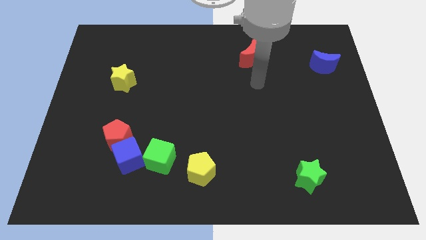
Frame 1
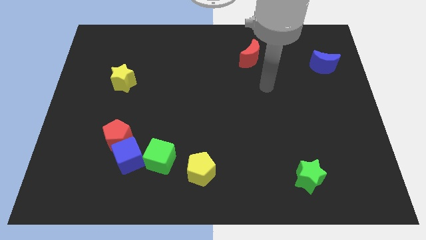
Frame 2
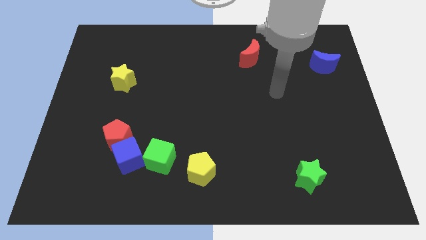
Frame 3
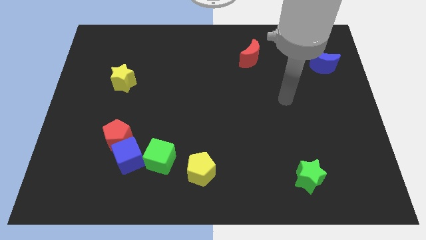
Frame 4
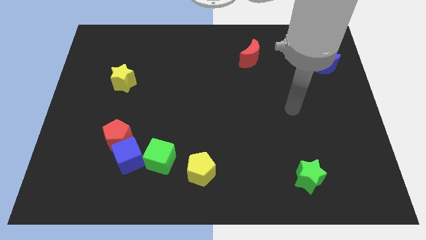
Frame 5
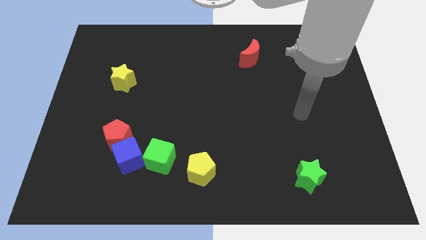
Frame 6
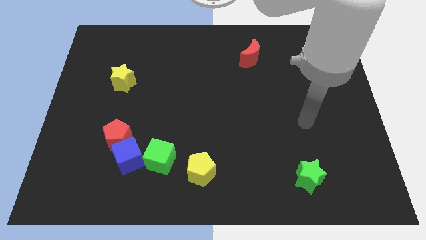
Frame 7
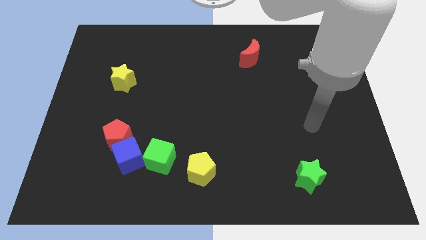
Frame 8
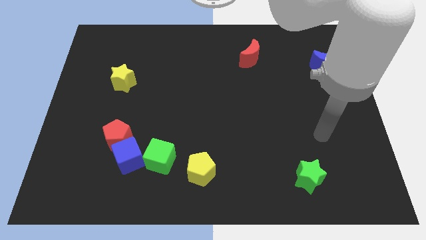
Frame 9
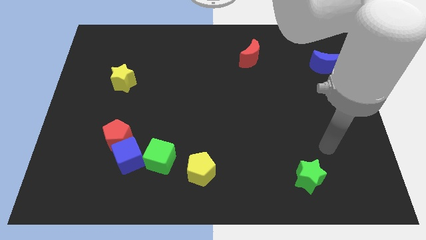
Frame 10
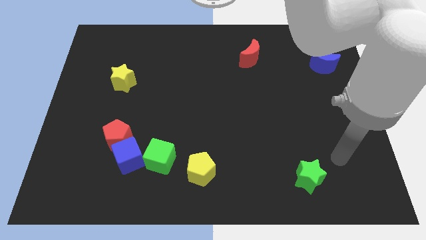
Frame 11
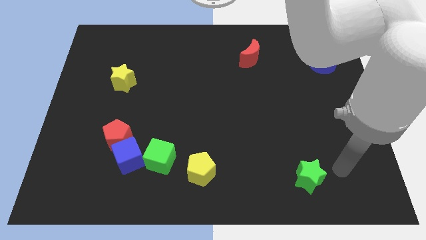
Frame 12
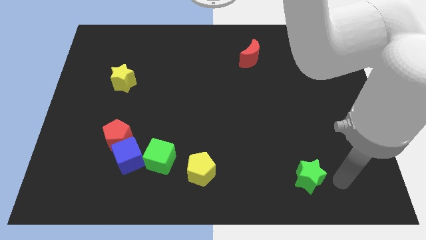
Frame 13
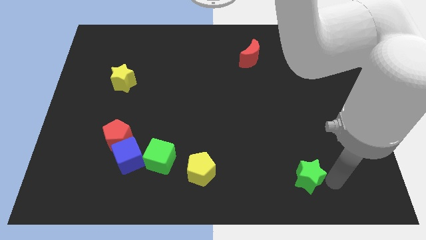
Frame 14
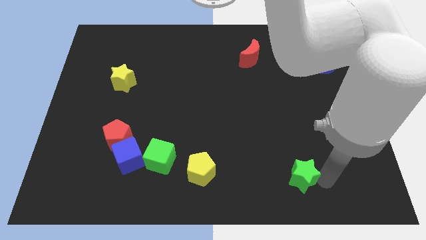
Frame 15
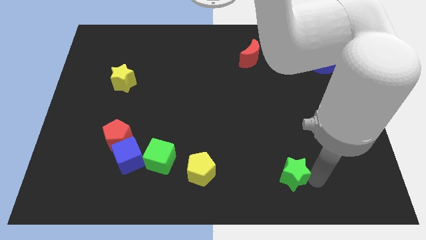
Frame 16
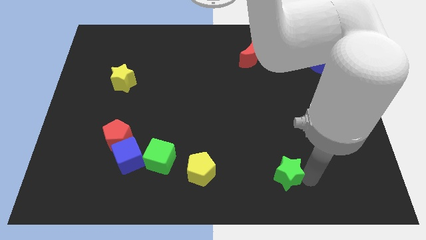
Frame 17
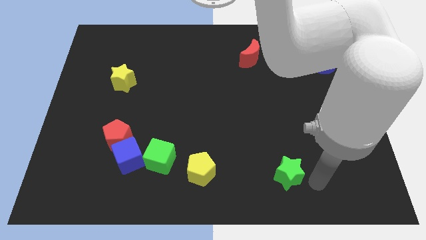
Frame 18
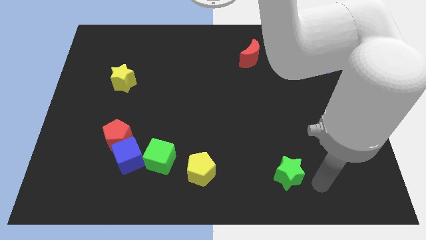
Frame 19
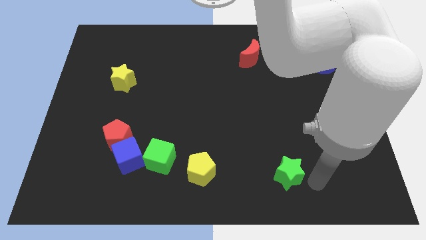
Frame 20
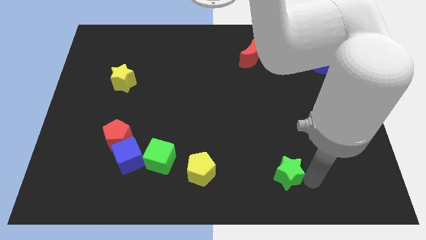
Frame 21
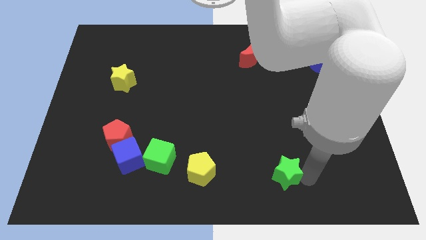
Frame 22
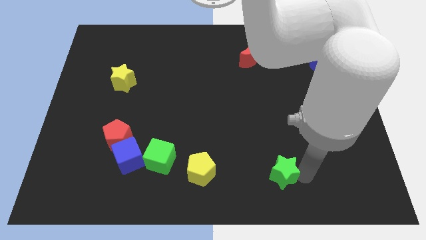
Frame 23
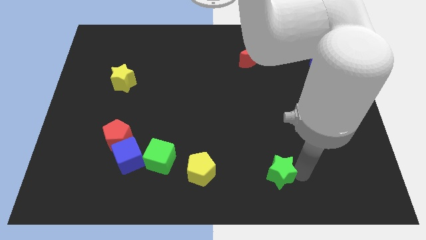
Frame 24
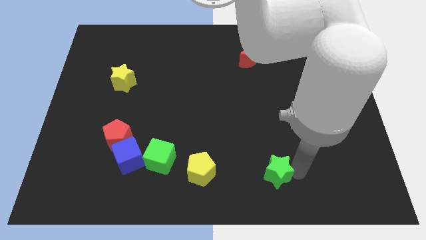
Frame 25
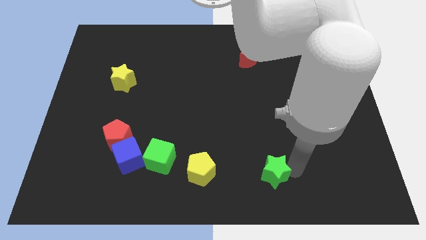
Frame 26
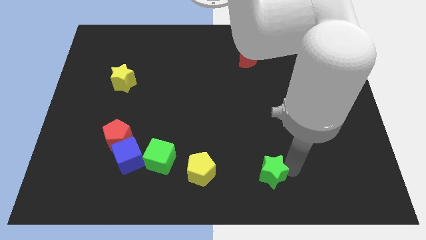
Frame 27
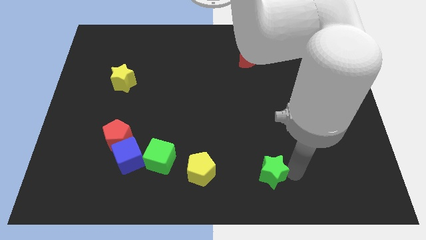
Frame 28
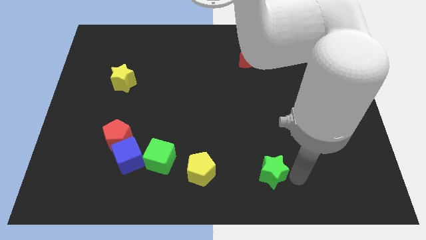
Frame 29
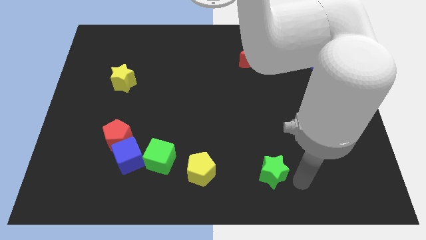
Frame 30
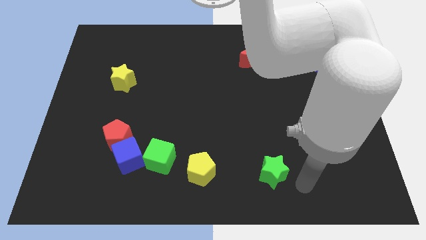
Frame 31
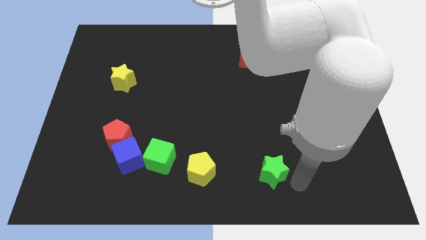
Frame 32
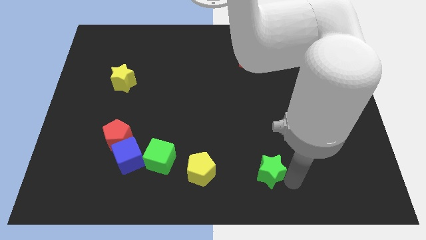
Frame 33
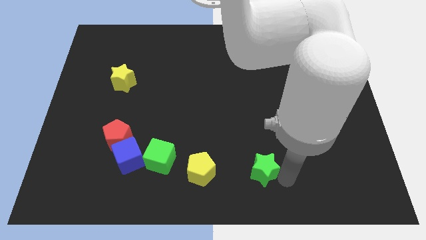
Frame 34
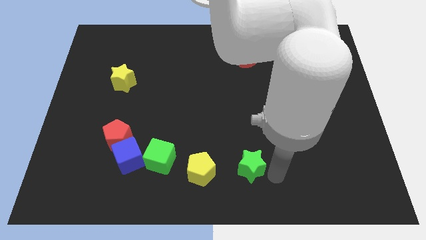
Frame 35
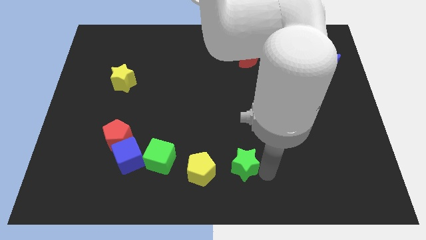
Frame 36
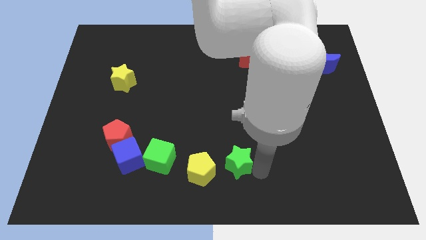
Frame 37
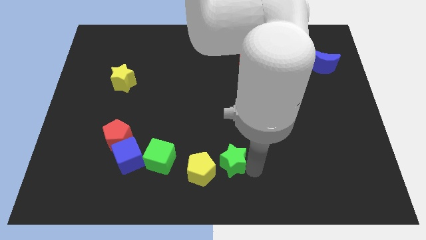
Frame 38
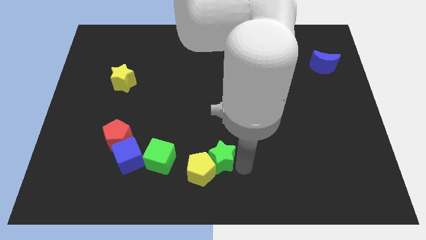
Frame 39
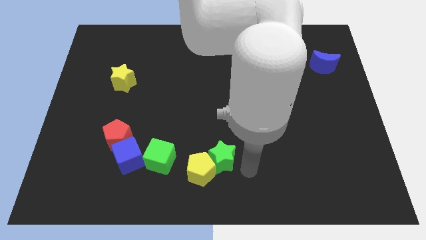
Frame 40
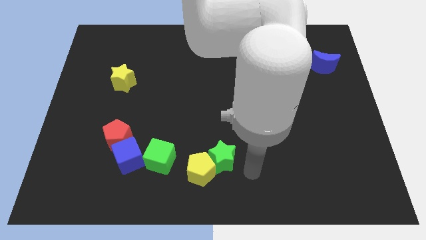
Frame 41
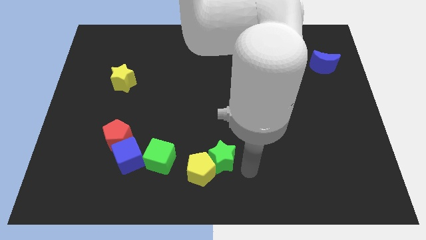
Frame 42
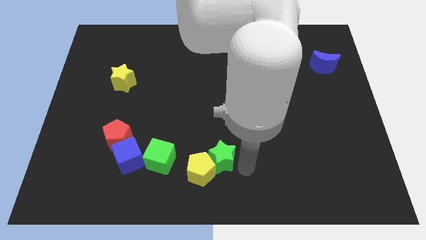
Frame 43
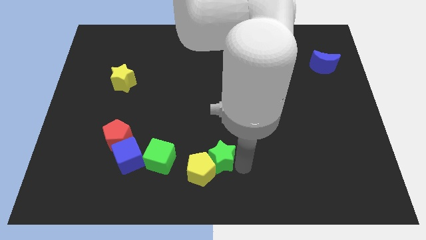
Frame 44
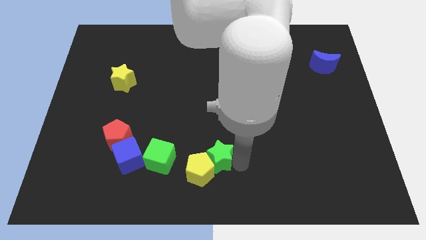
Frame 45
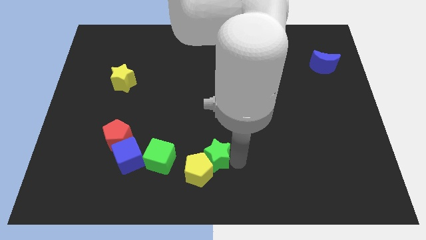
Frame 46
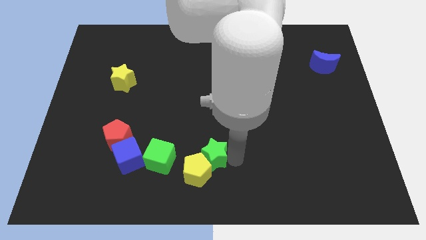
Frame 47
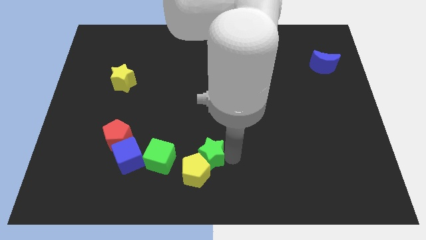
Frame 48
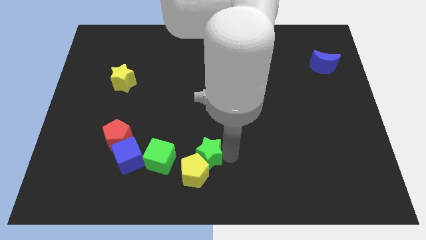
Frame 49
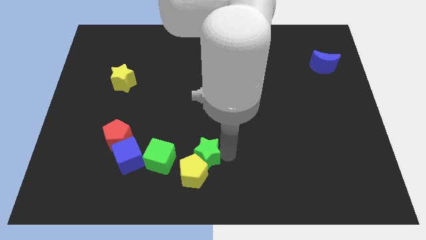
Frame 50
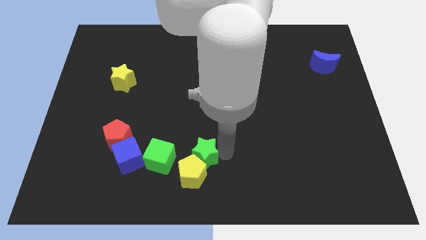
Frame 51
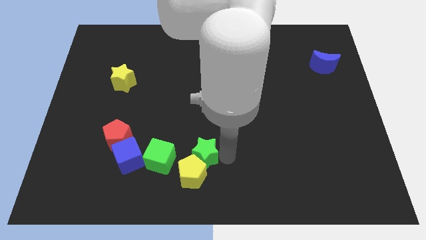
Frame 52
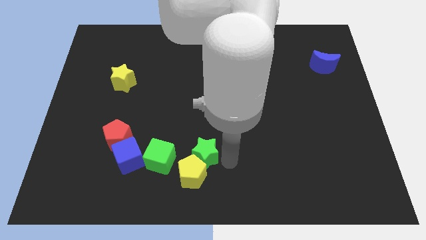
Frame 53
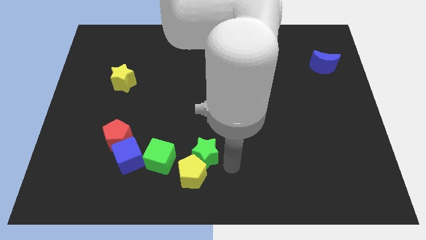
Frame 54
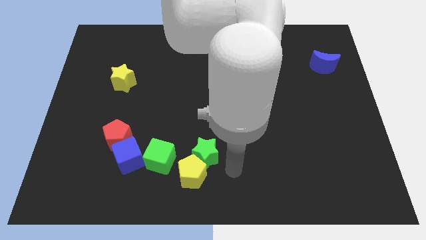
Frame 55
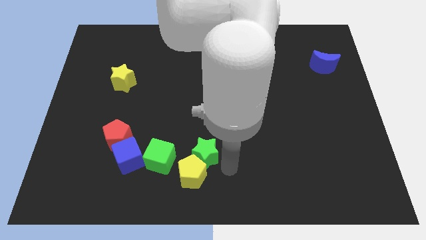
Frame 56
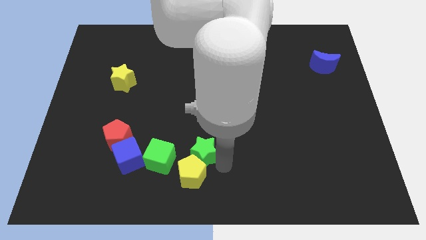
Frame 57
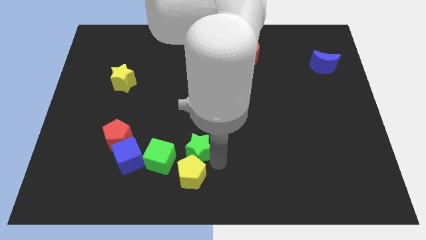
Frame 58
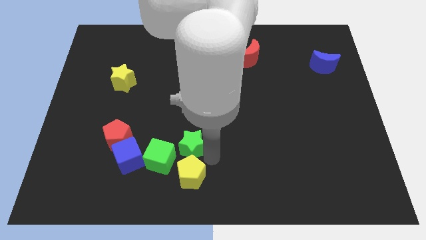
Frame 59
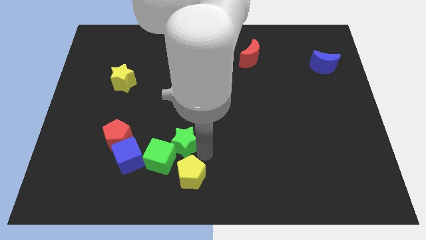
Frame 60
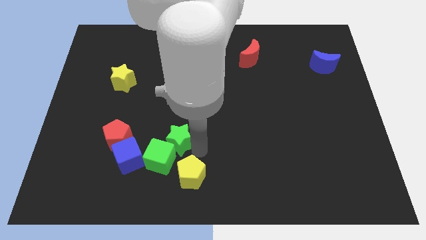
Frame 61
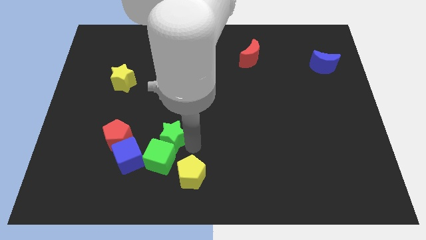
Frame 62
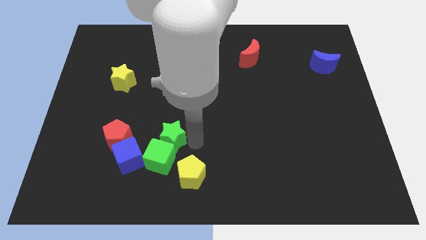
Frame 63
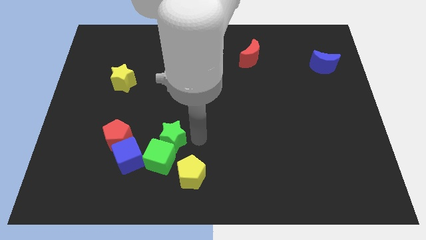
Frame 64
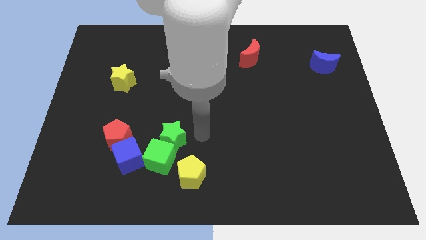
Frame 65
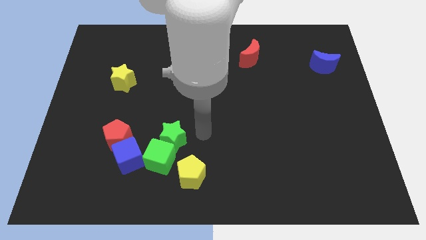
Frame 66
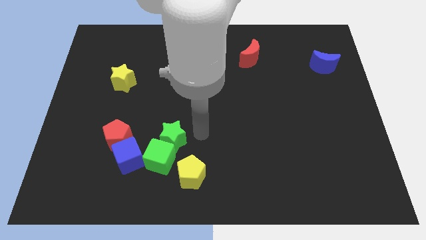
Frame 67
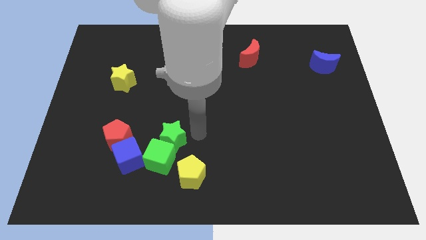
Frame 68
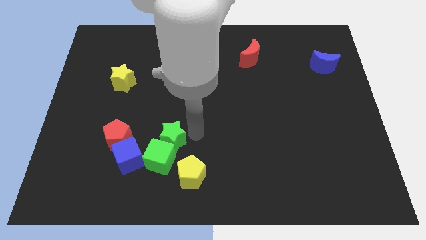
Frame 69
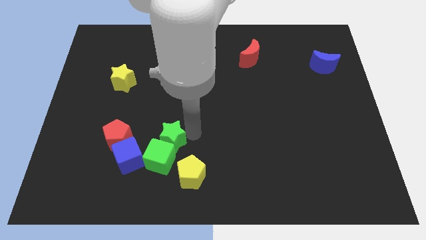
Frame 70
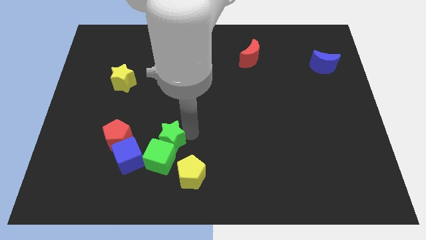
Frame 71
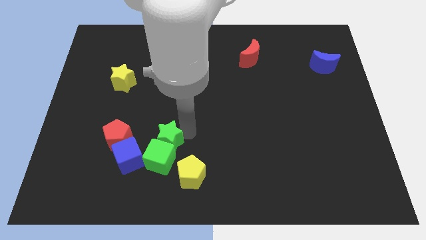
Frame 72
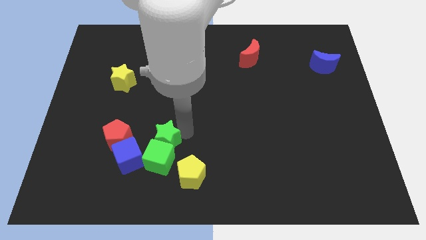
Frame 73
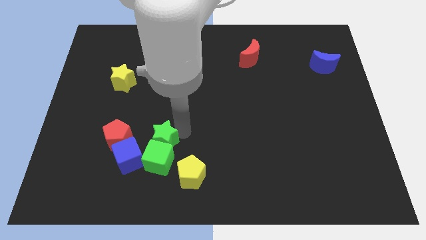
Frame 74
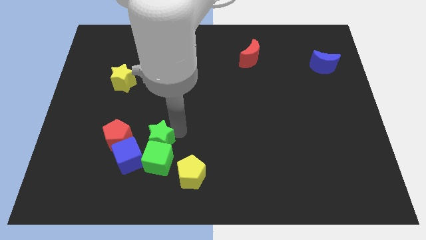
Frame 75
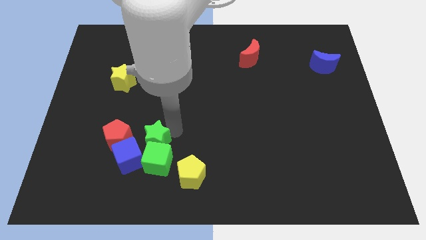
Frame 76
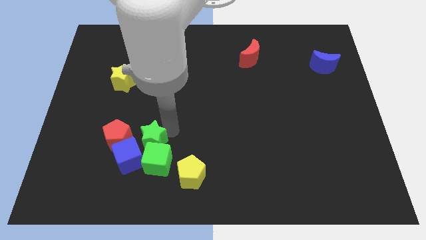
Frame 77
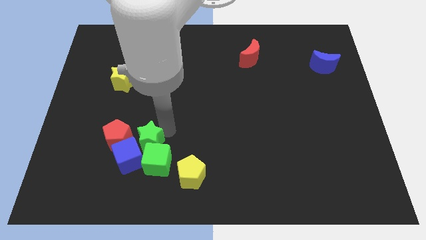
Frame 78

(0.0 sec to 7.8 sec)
slide the green star to the blue cube
